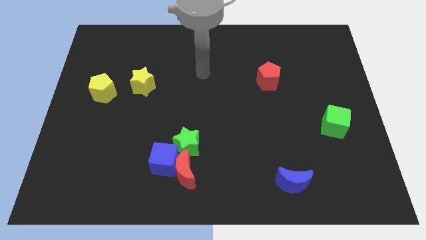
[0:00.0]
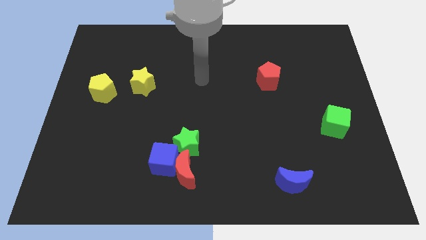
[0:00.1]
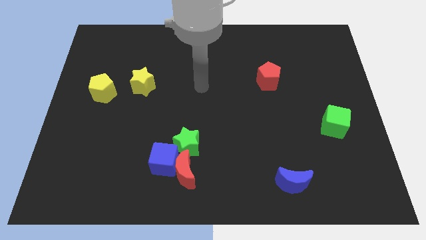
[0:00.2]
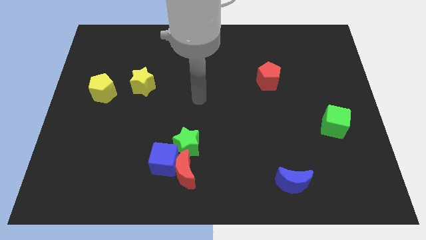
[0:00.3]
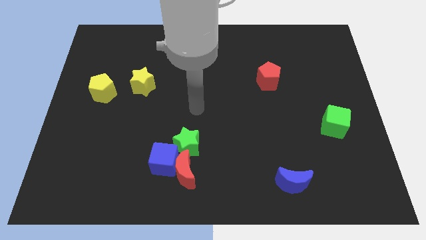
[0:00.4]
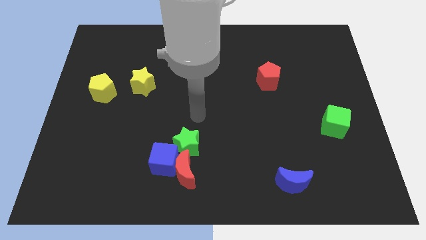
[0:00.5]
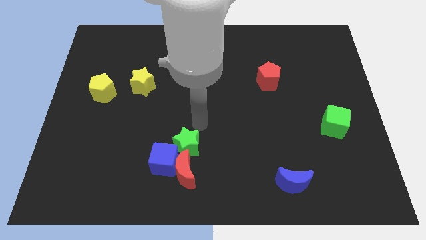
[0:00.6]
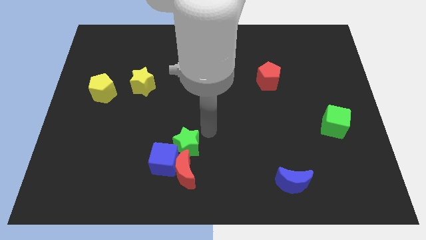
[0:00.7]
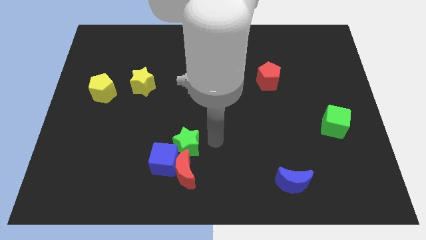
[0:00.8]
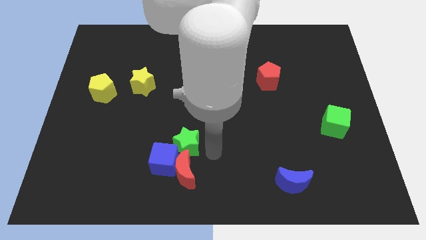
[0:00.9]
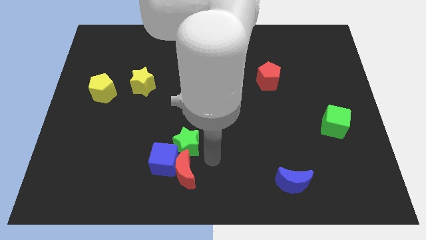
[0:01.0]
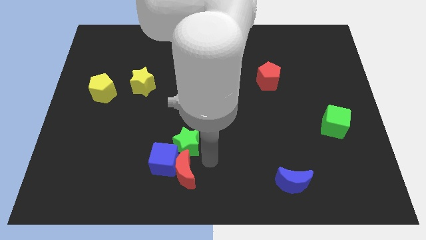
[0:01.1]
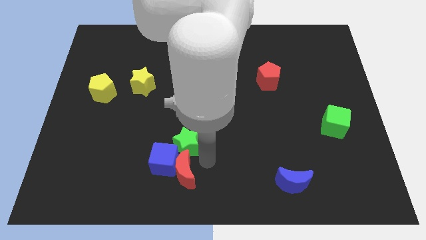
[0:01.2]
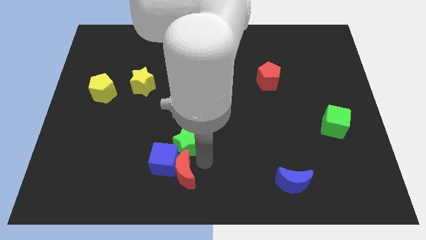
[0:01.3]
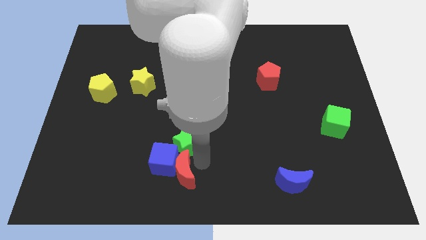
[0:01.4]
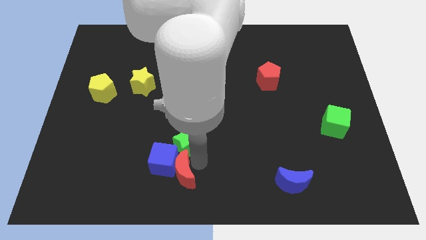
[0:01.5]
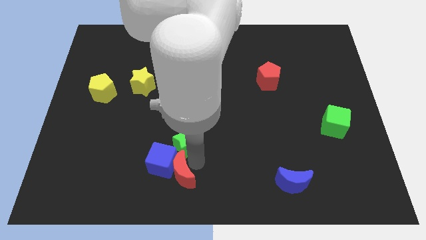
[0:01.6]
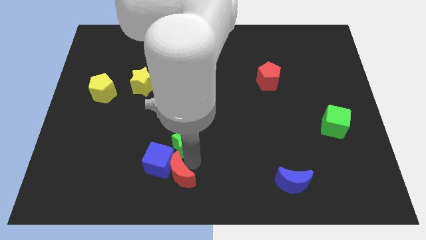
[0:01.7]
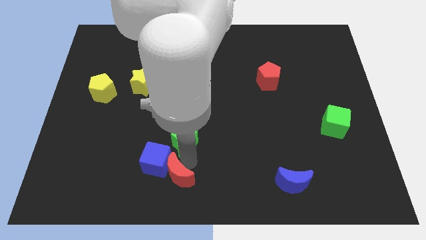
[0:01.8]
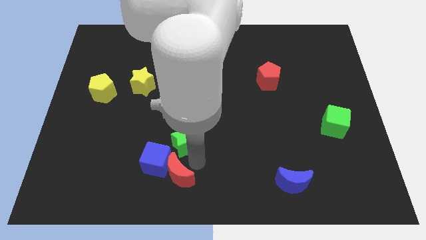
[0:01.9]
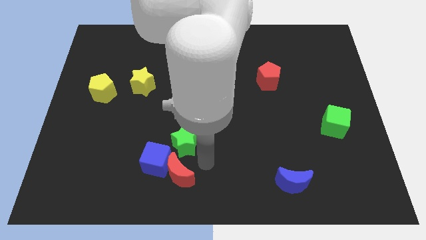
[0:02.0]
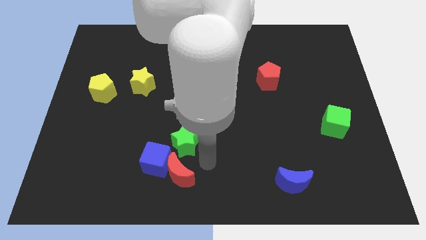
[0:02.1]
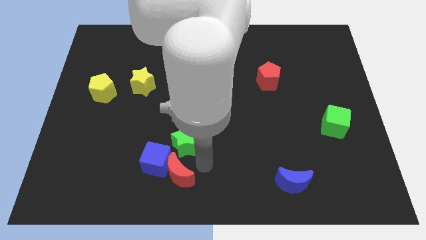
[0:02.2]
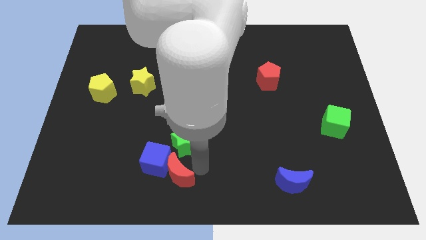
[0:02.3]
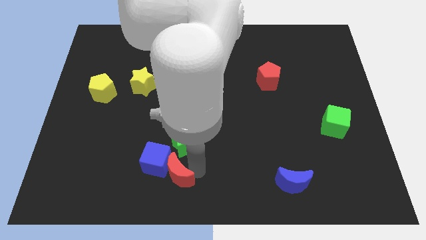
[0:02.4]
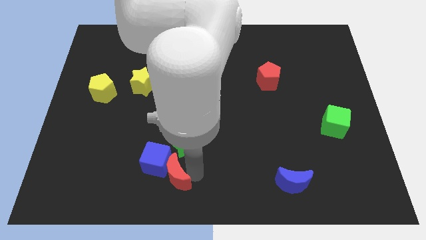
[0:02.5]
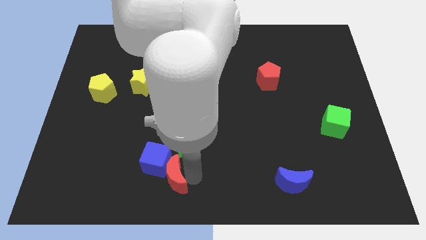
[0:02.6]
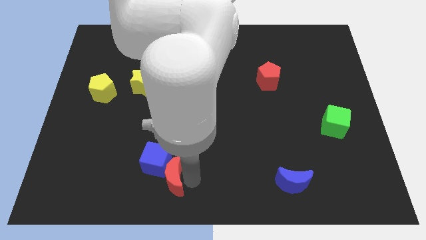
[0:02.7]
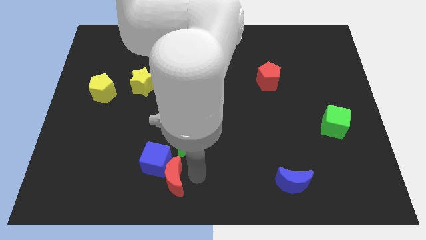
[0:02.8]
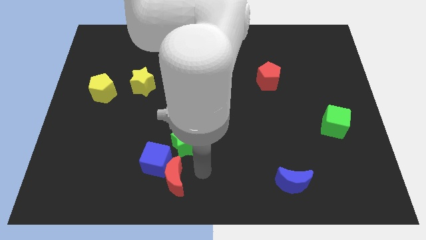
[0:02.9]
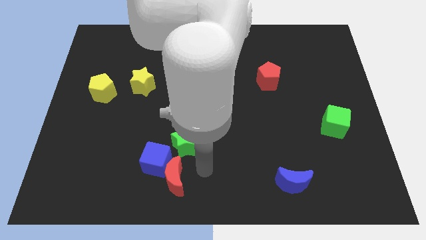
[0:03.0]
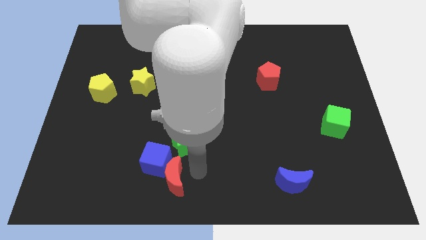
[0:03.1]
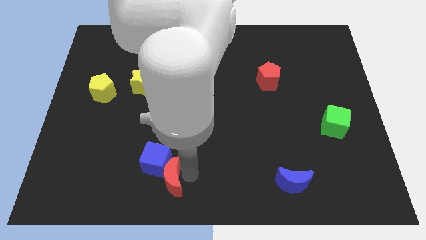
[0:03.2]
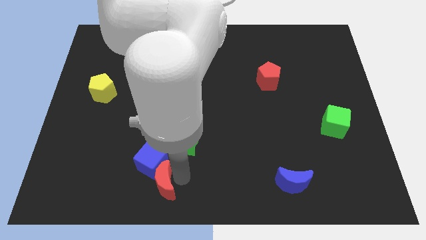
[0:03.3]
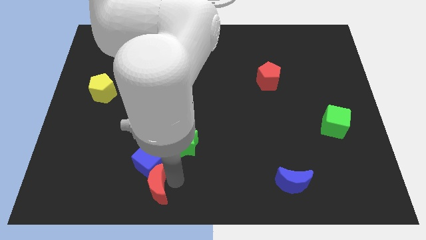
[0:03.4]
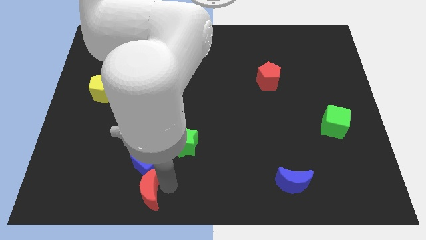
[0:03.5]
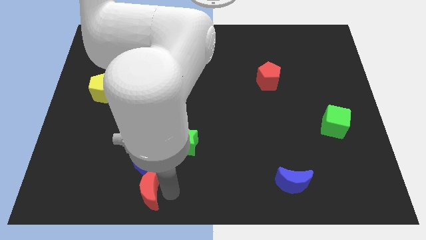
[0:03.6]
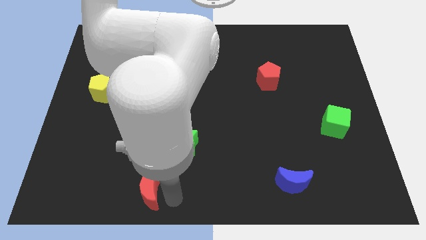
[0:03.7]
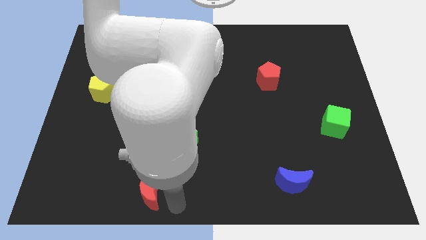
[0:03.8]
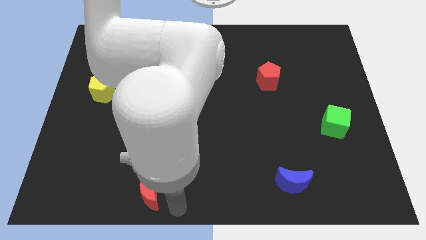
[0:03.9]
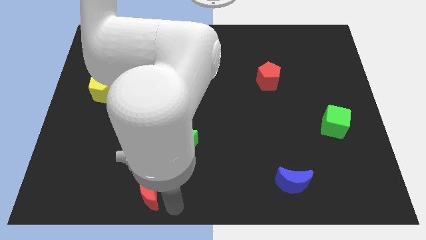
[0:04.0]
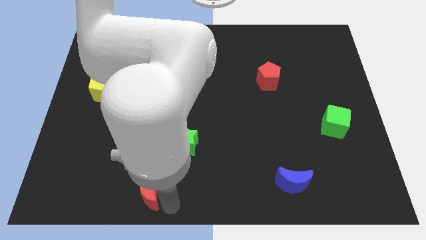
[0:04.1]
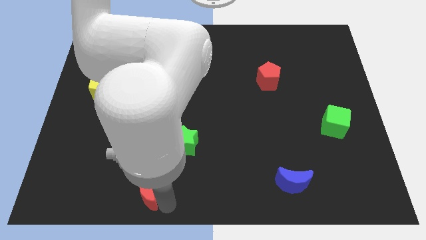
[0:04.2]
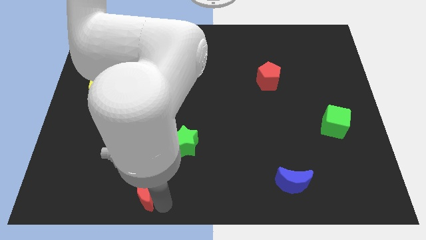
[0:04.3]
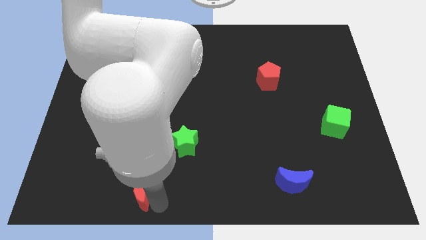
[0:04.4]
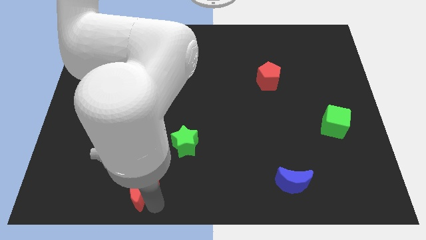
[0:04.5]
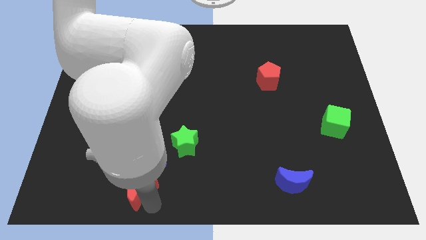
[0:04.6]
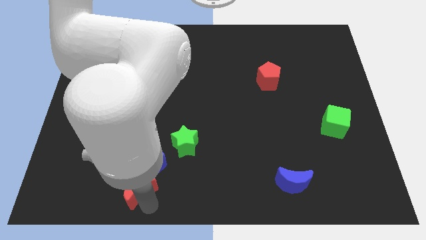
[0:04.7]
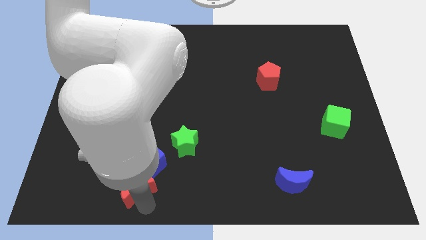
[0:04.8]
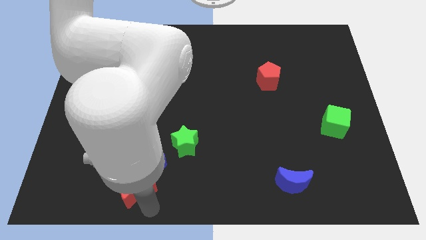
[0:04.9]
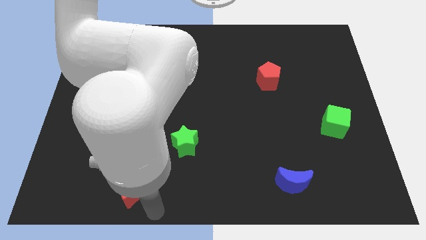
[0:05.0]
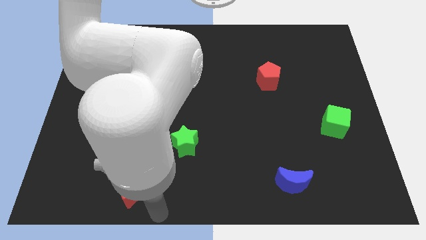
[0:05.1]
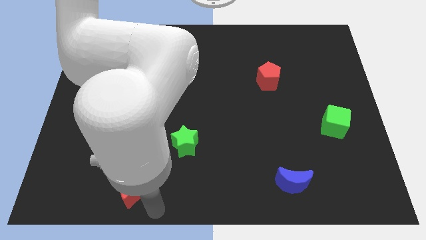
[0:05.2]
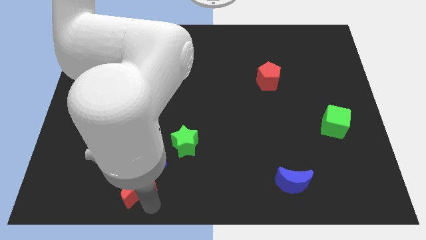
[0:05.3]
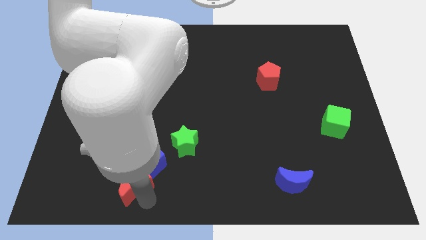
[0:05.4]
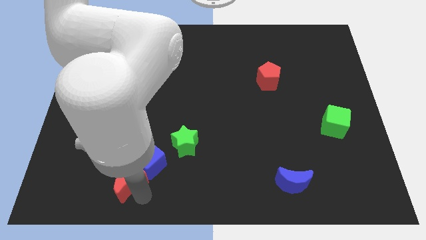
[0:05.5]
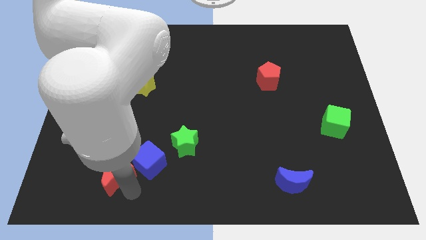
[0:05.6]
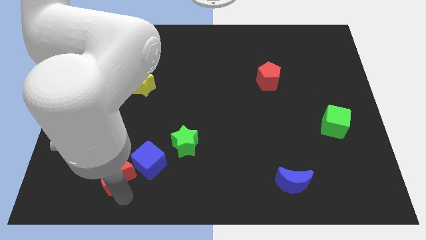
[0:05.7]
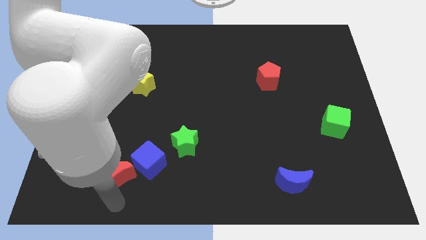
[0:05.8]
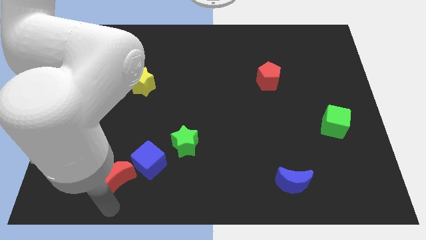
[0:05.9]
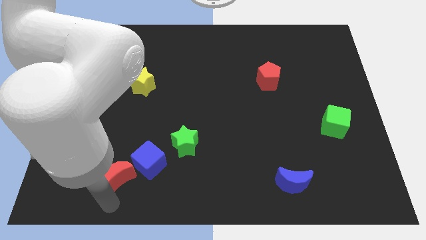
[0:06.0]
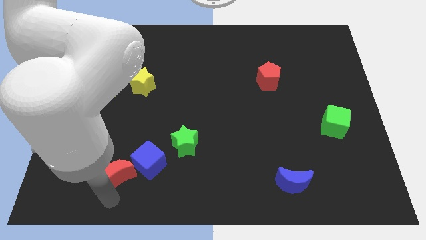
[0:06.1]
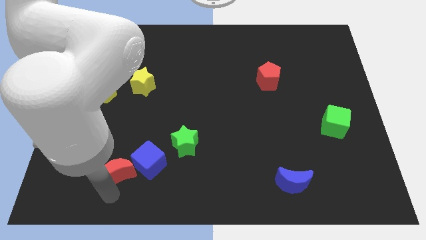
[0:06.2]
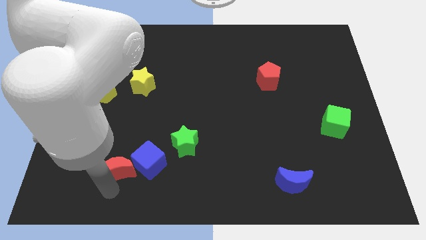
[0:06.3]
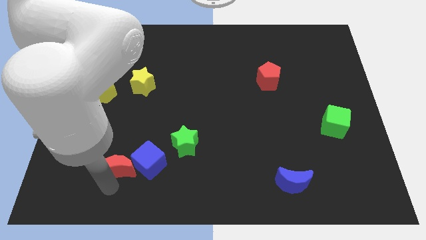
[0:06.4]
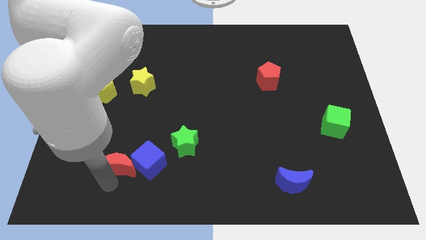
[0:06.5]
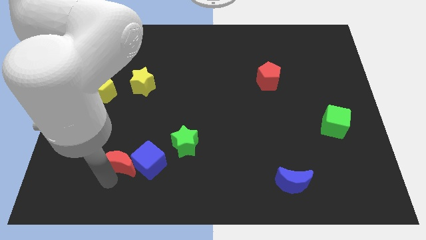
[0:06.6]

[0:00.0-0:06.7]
push the red moon diagonally up and to the left of the blue cube
